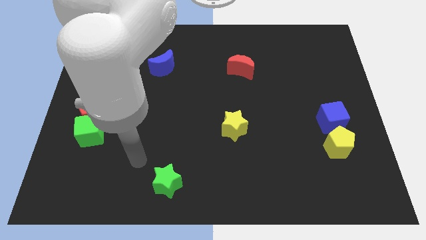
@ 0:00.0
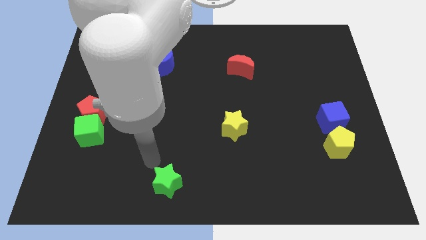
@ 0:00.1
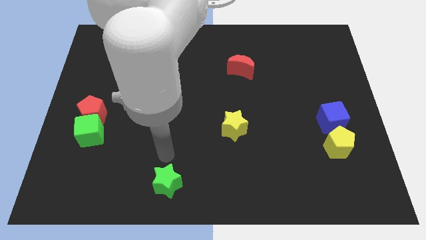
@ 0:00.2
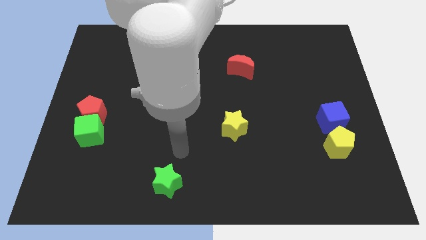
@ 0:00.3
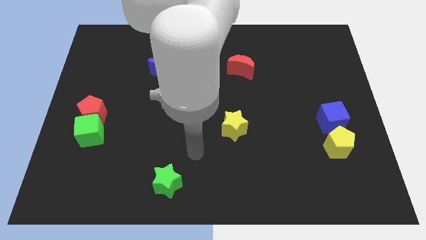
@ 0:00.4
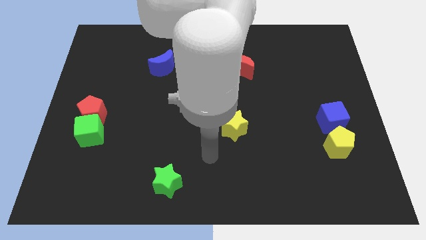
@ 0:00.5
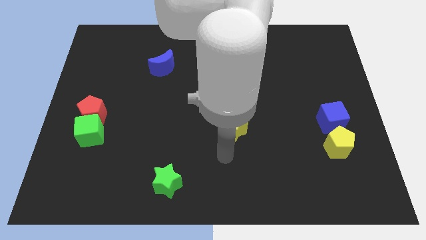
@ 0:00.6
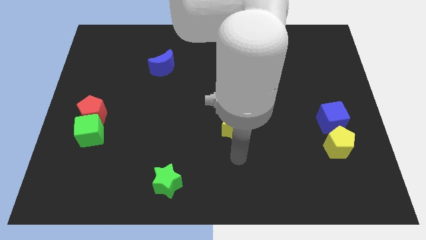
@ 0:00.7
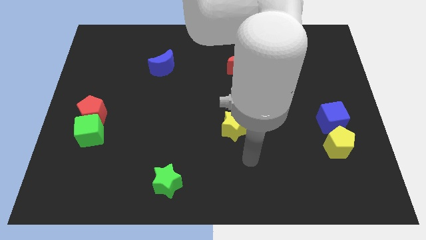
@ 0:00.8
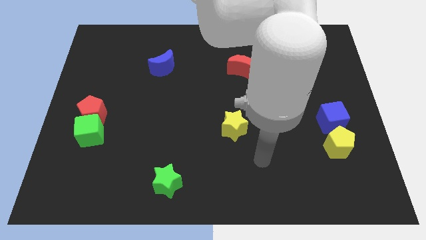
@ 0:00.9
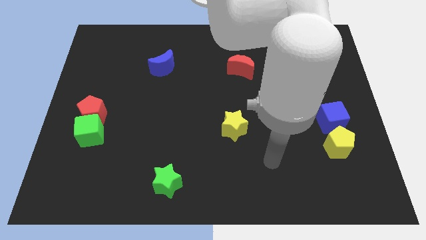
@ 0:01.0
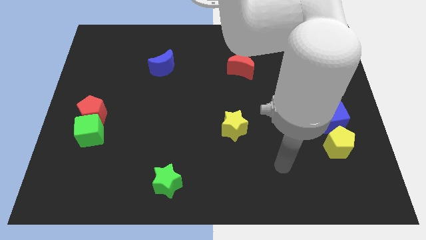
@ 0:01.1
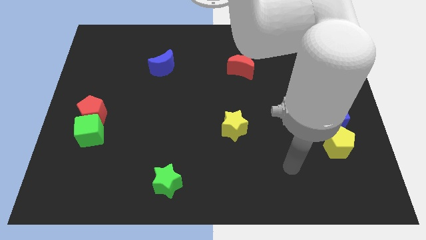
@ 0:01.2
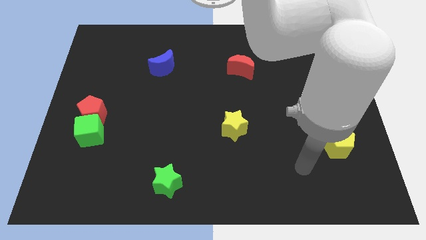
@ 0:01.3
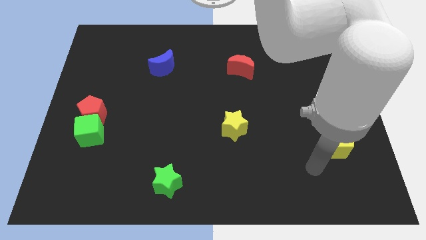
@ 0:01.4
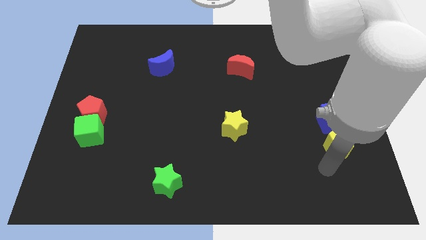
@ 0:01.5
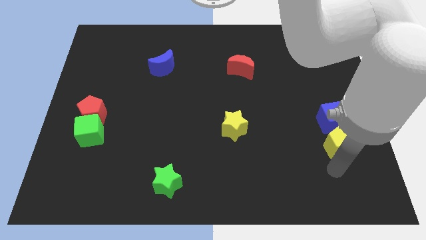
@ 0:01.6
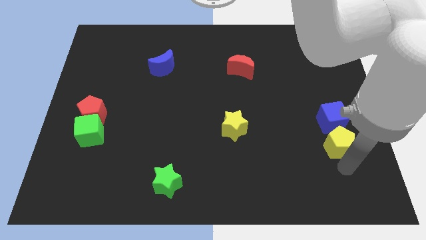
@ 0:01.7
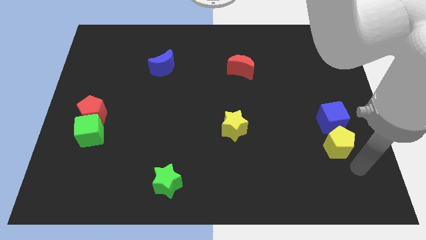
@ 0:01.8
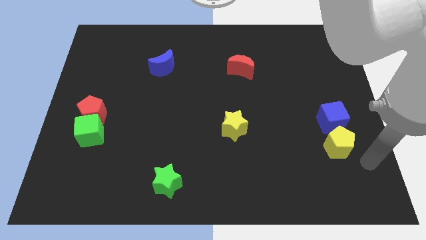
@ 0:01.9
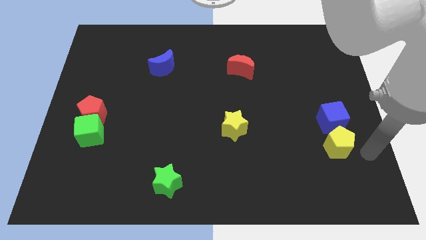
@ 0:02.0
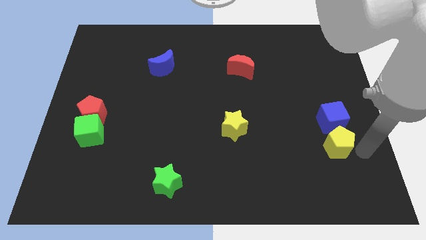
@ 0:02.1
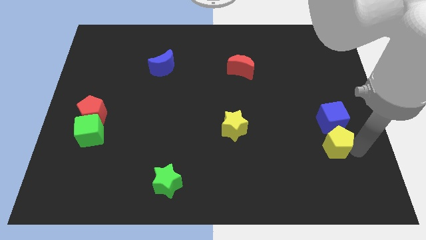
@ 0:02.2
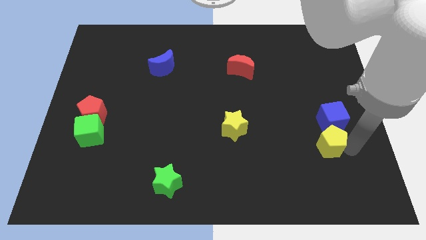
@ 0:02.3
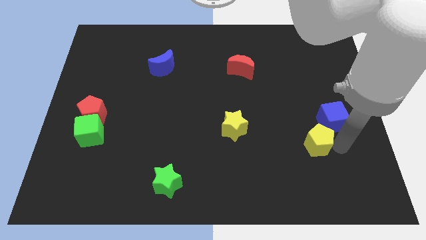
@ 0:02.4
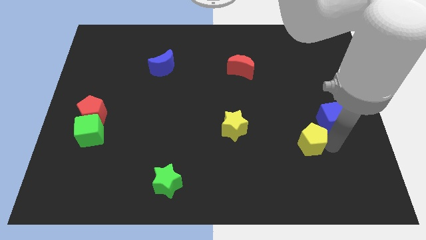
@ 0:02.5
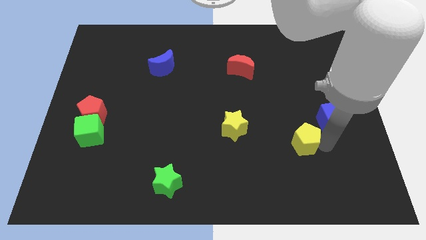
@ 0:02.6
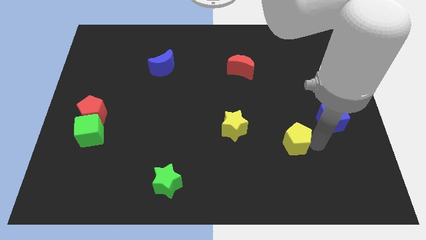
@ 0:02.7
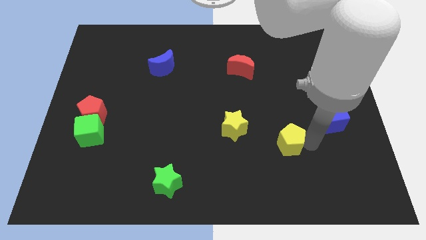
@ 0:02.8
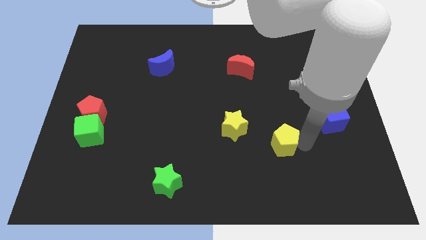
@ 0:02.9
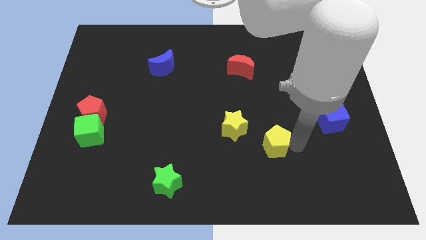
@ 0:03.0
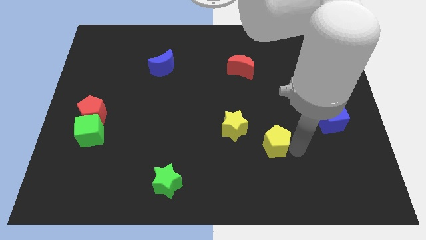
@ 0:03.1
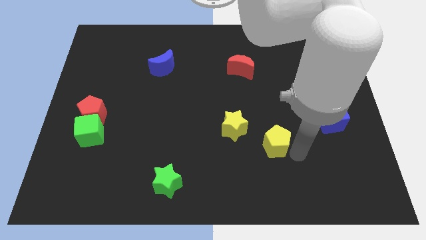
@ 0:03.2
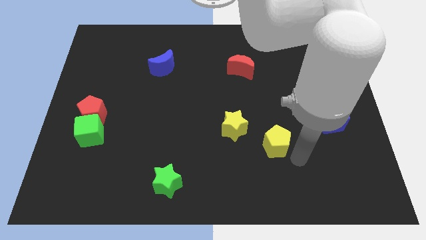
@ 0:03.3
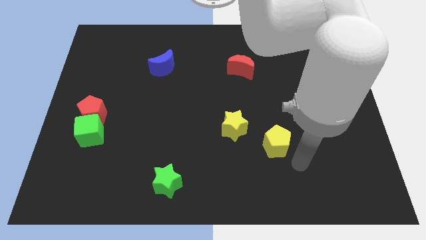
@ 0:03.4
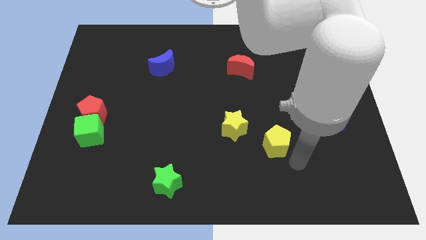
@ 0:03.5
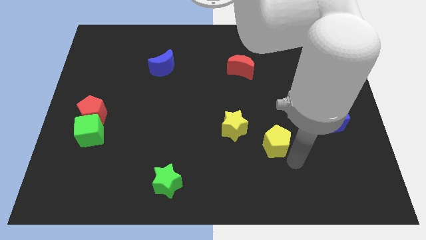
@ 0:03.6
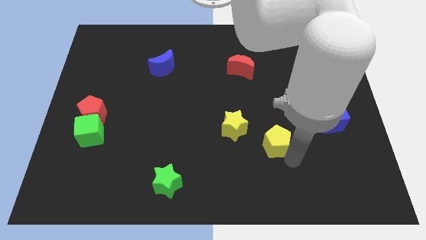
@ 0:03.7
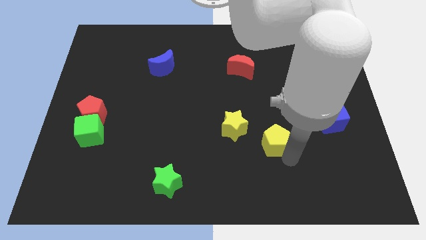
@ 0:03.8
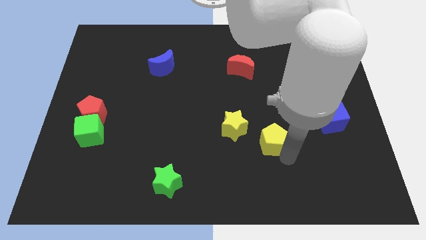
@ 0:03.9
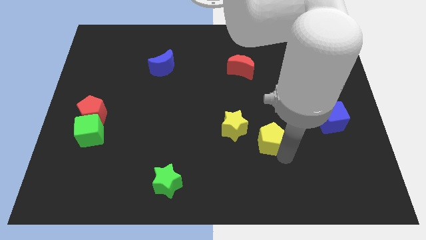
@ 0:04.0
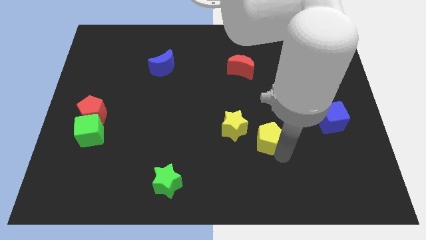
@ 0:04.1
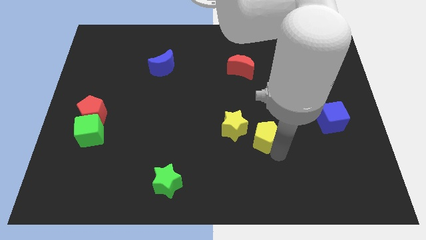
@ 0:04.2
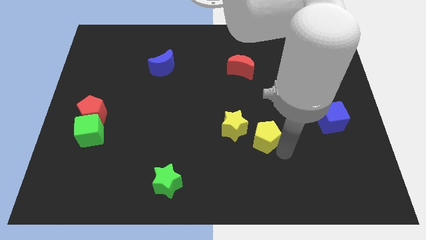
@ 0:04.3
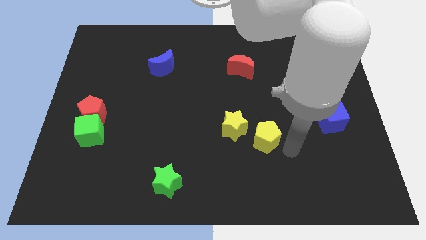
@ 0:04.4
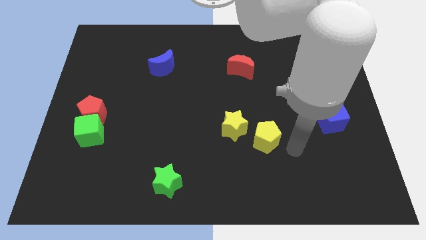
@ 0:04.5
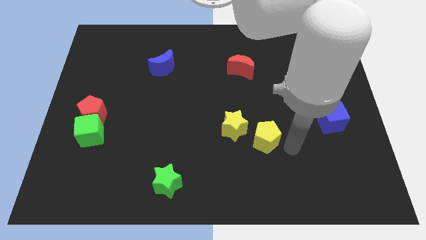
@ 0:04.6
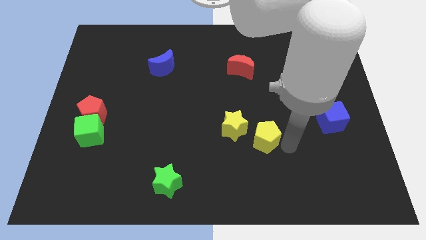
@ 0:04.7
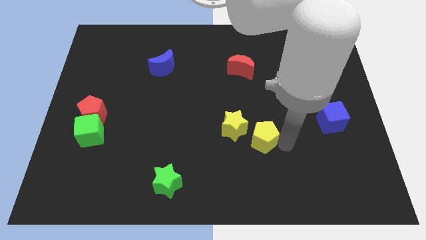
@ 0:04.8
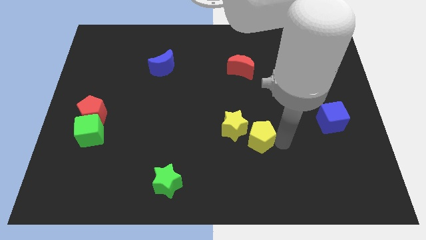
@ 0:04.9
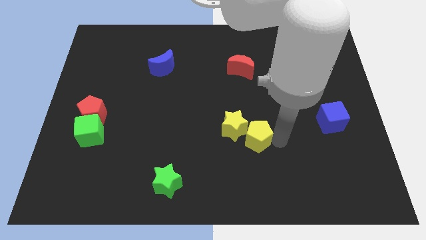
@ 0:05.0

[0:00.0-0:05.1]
slide the yellow pentagon to the yellow star

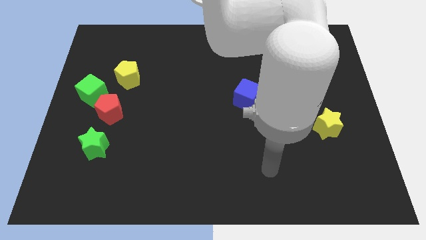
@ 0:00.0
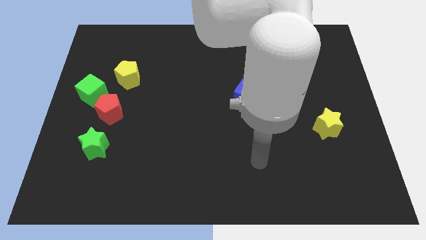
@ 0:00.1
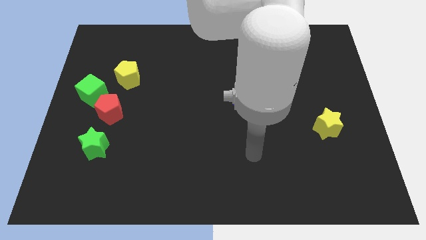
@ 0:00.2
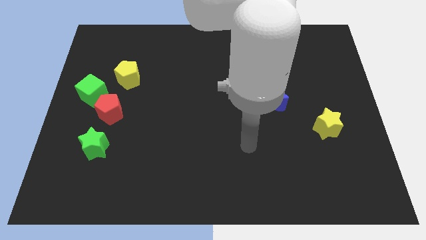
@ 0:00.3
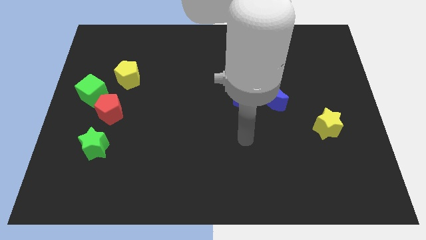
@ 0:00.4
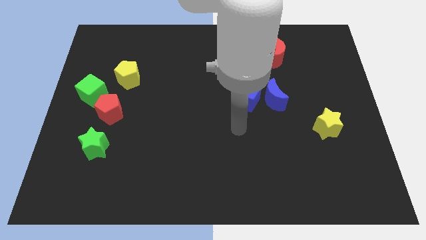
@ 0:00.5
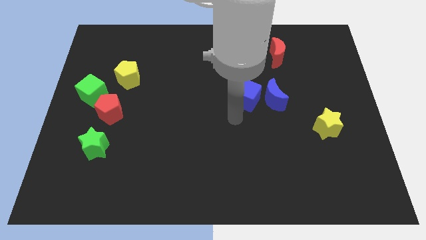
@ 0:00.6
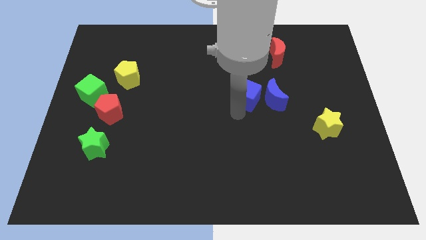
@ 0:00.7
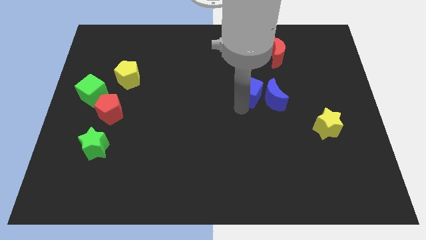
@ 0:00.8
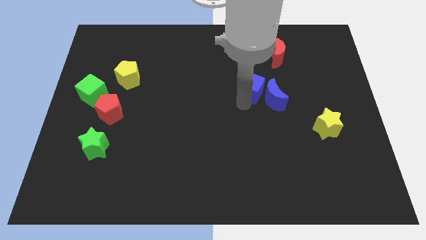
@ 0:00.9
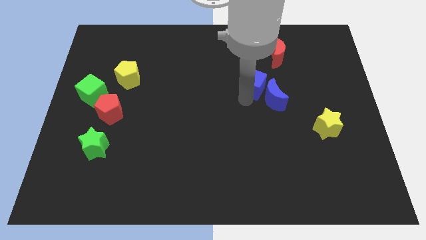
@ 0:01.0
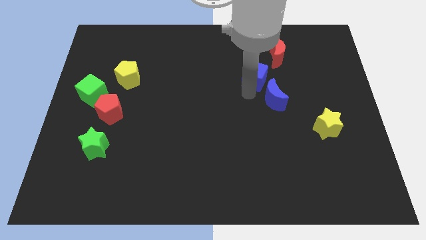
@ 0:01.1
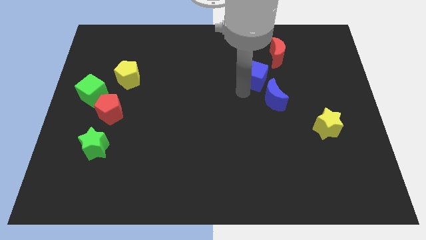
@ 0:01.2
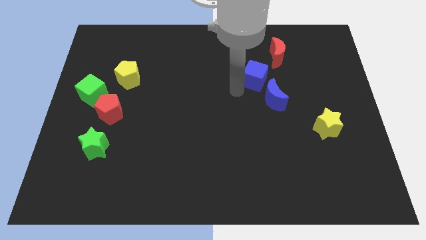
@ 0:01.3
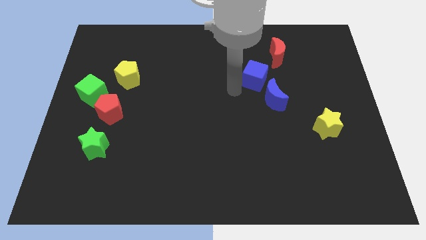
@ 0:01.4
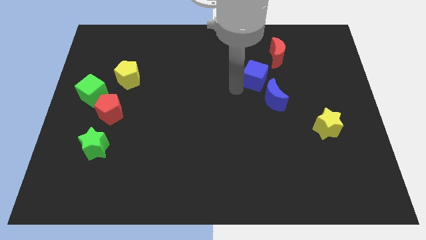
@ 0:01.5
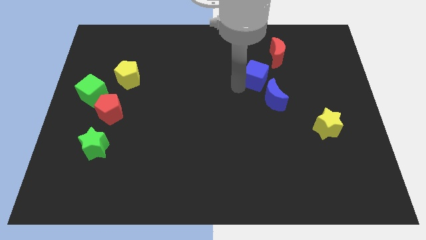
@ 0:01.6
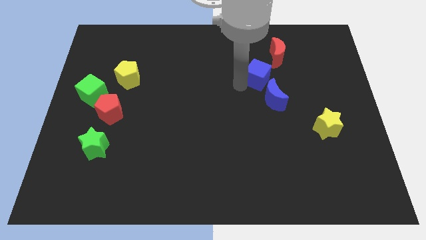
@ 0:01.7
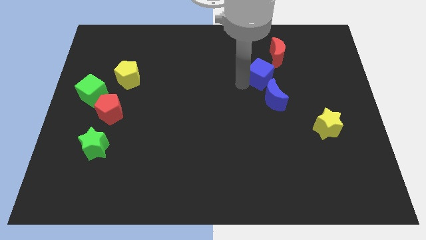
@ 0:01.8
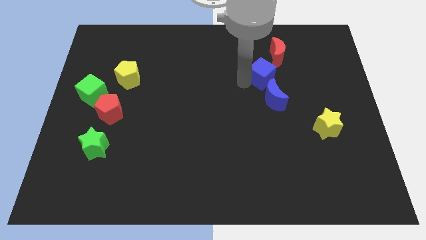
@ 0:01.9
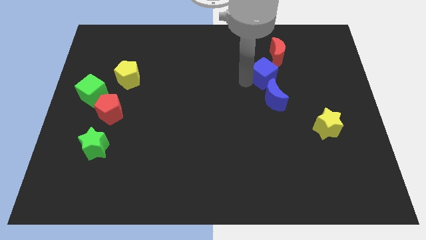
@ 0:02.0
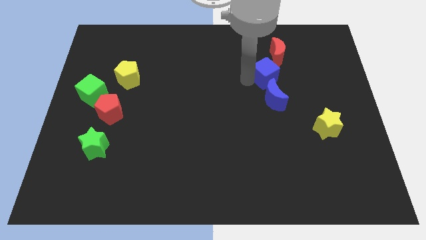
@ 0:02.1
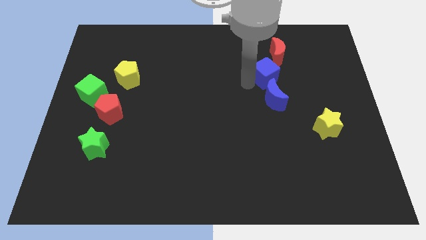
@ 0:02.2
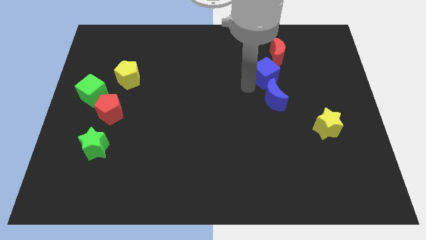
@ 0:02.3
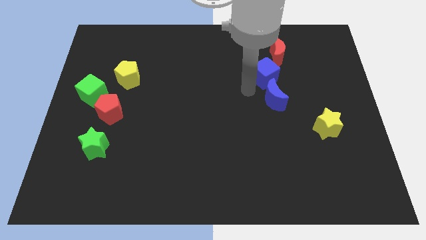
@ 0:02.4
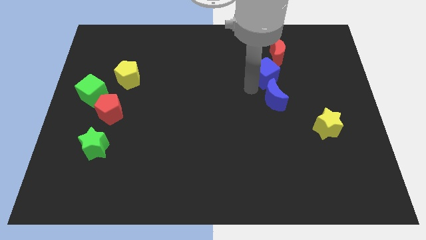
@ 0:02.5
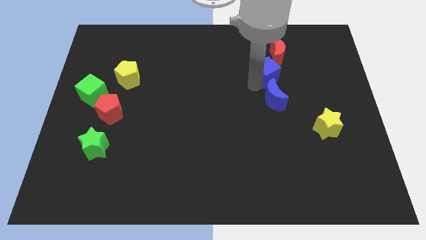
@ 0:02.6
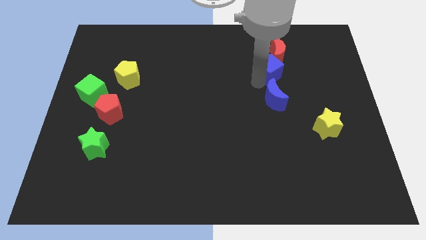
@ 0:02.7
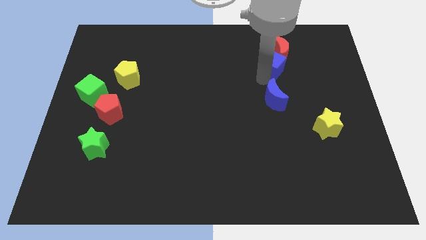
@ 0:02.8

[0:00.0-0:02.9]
move the blue cube next to the red moon
